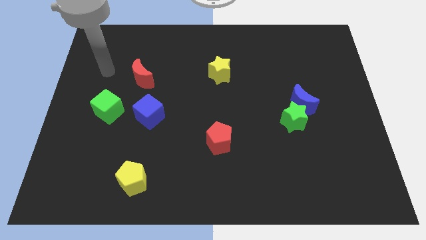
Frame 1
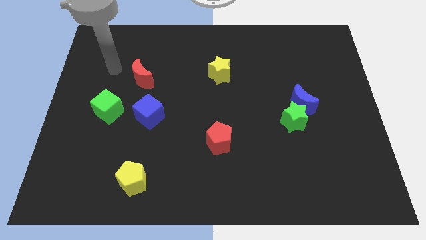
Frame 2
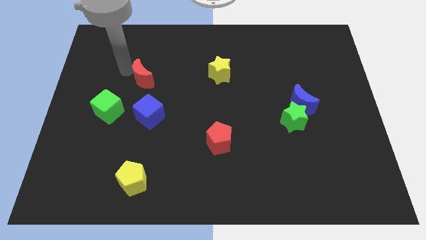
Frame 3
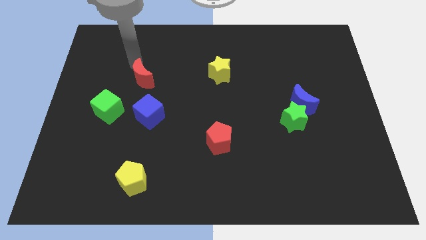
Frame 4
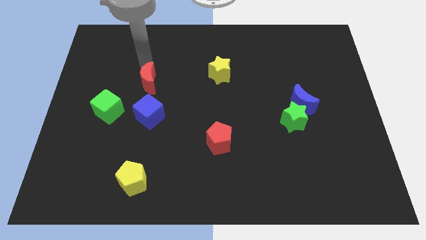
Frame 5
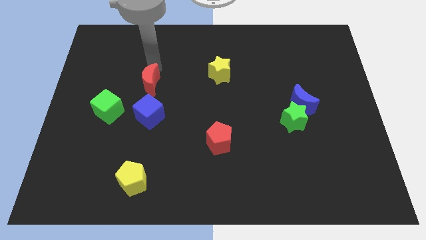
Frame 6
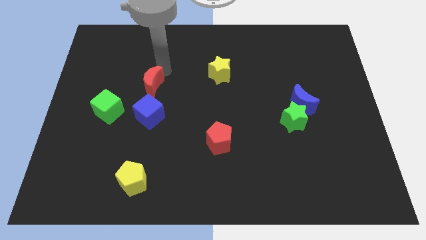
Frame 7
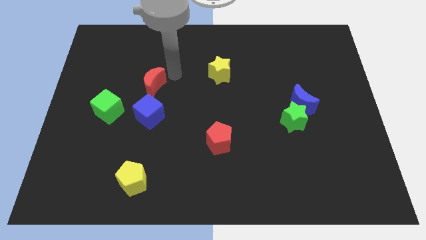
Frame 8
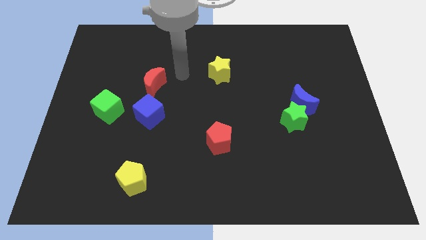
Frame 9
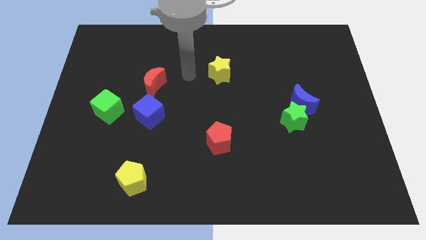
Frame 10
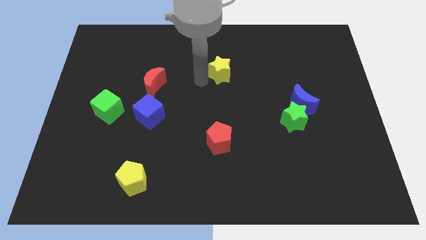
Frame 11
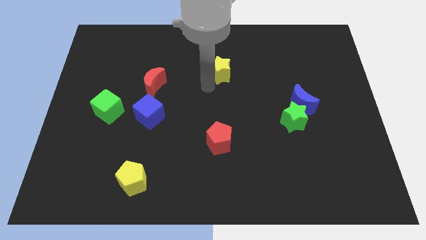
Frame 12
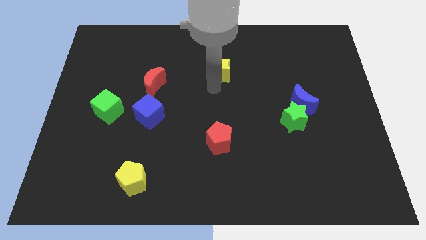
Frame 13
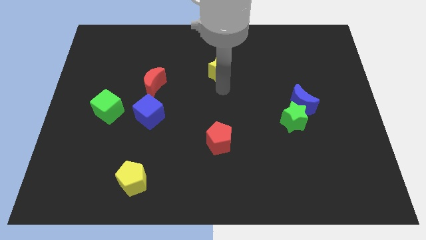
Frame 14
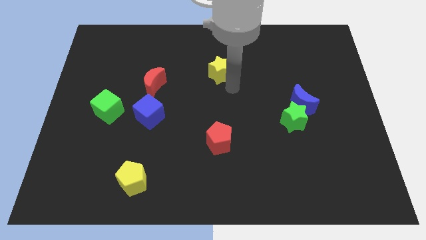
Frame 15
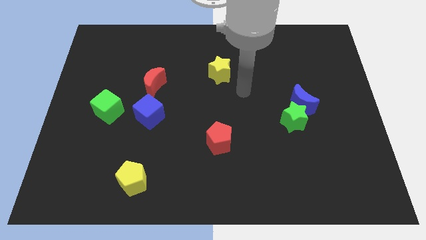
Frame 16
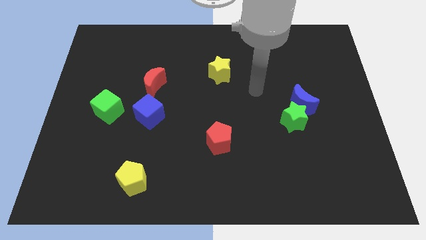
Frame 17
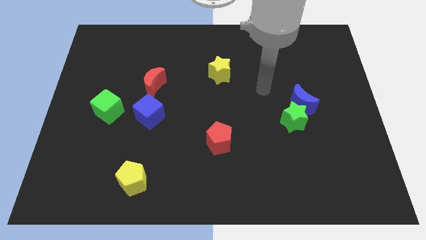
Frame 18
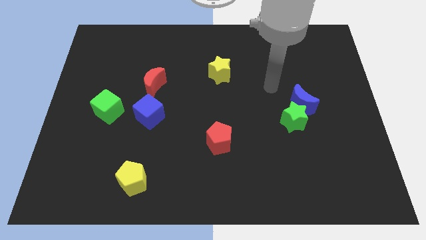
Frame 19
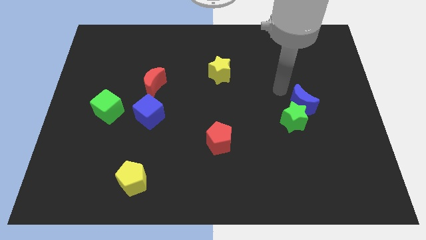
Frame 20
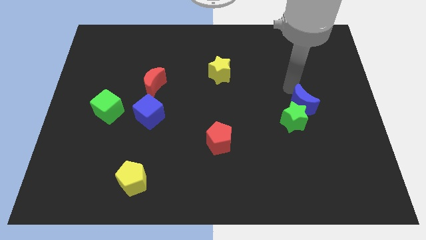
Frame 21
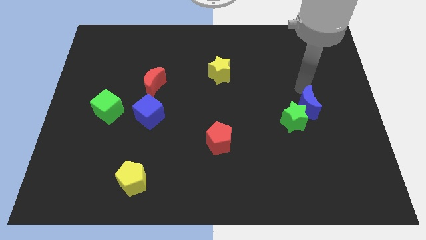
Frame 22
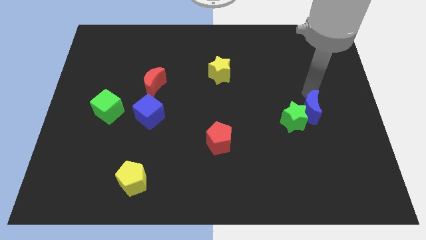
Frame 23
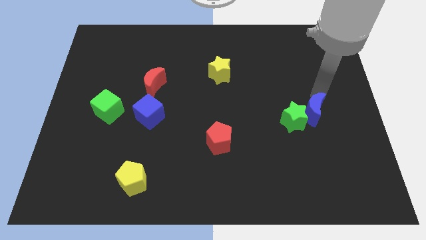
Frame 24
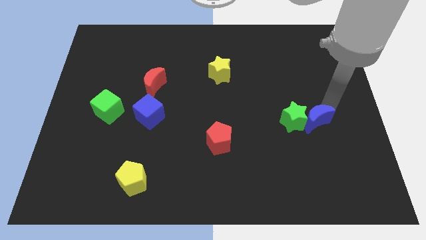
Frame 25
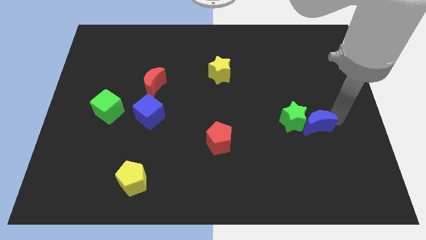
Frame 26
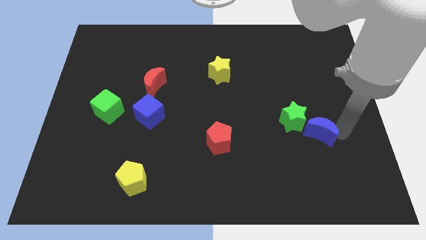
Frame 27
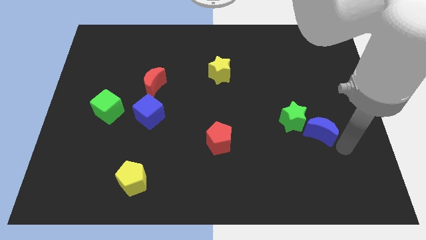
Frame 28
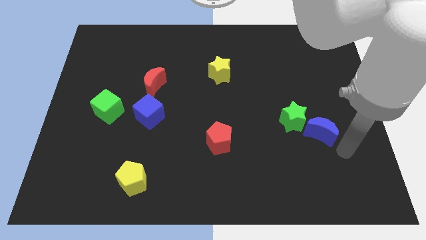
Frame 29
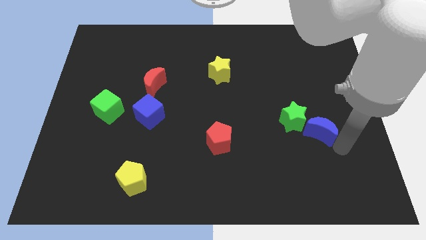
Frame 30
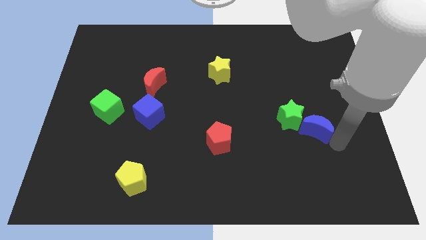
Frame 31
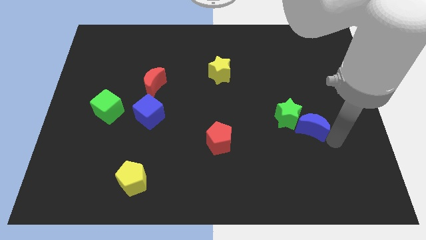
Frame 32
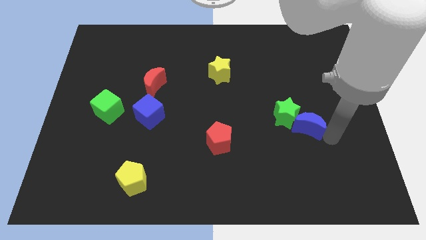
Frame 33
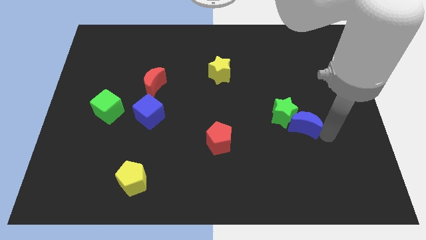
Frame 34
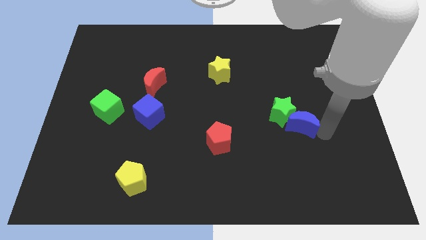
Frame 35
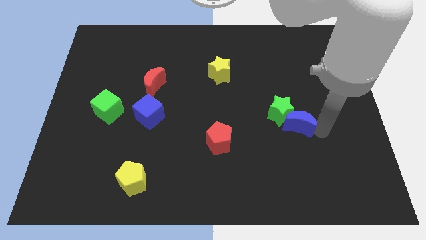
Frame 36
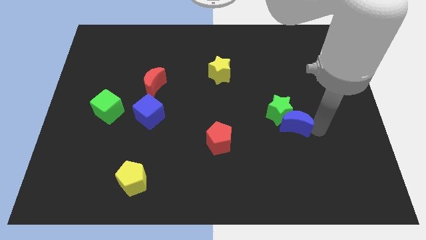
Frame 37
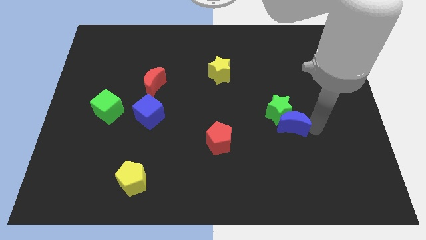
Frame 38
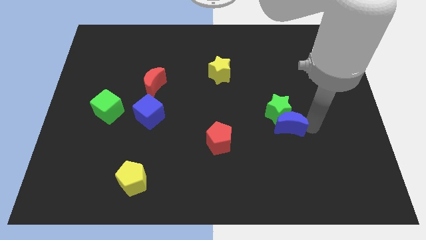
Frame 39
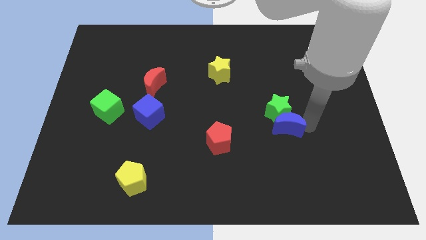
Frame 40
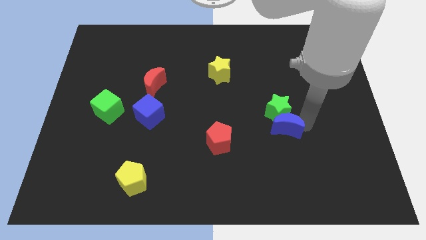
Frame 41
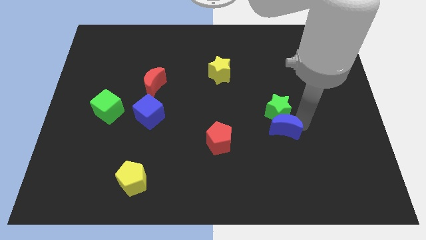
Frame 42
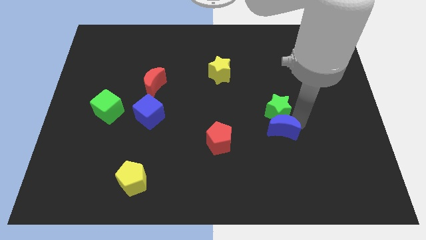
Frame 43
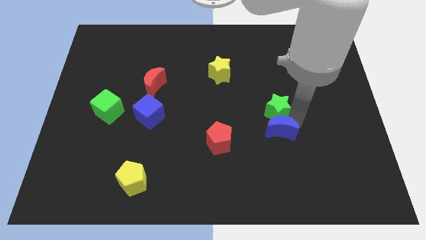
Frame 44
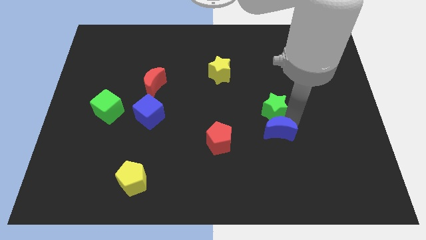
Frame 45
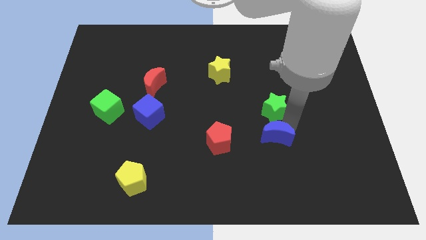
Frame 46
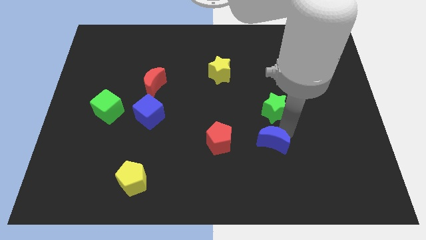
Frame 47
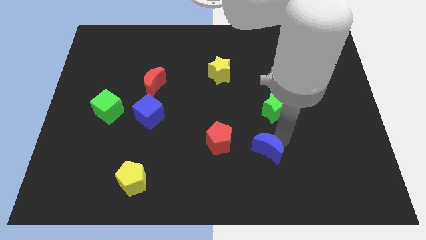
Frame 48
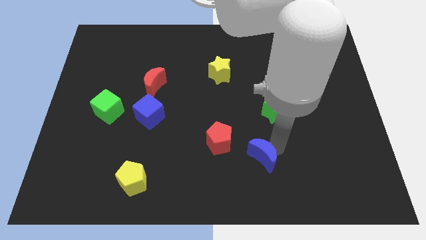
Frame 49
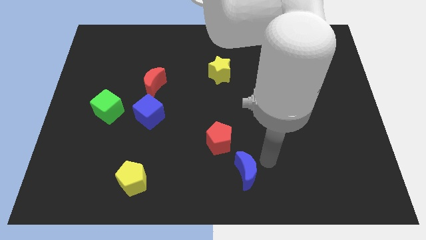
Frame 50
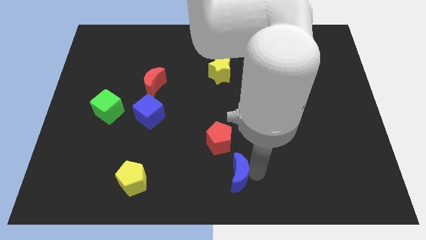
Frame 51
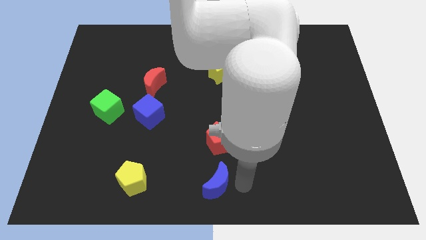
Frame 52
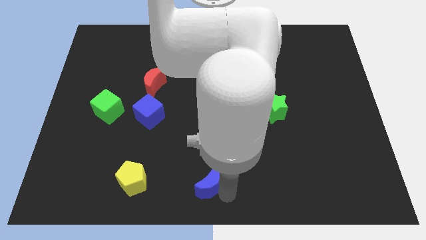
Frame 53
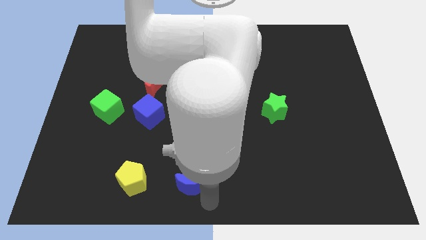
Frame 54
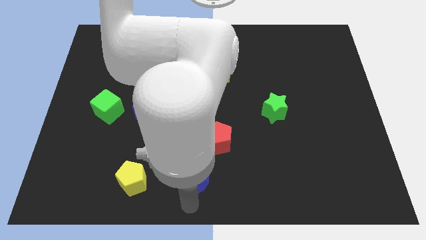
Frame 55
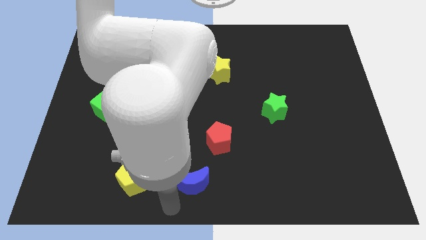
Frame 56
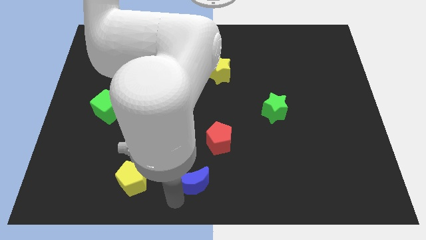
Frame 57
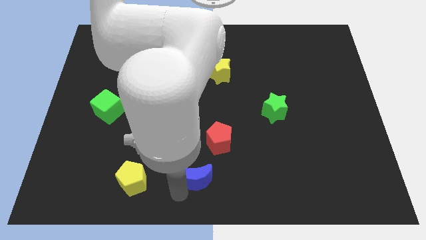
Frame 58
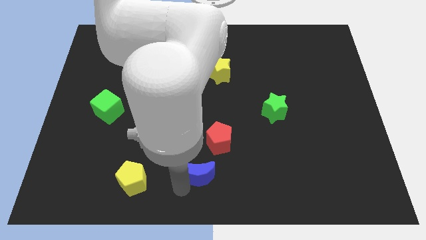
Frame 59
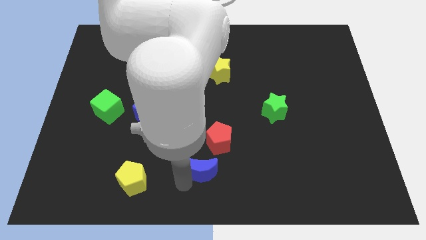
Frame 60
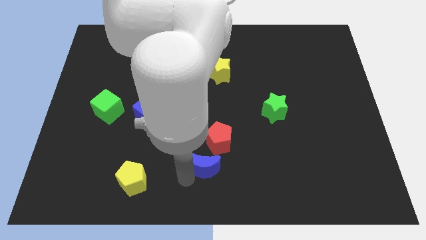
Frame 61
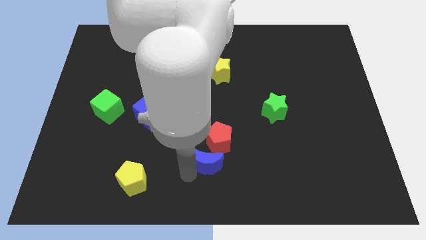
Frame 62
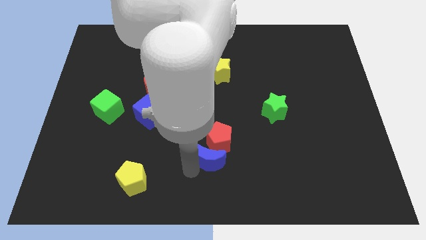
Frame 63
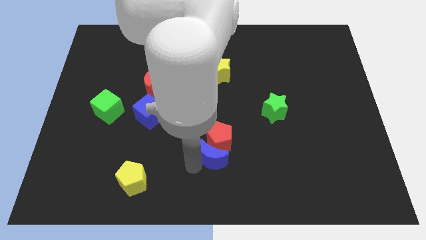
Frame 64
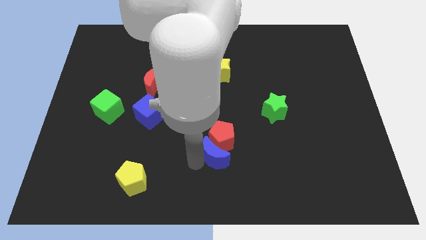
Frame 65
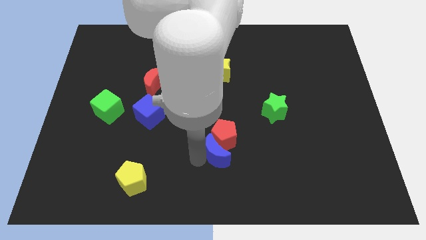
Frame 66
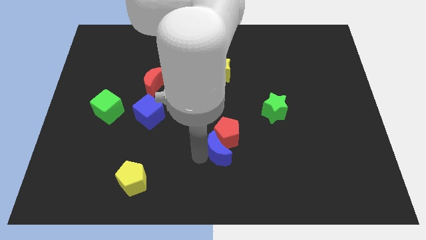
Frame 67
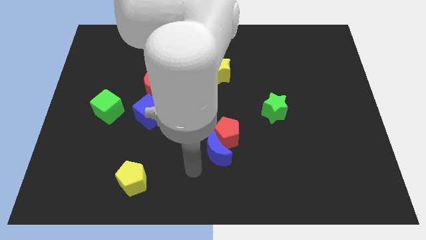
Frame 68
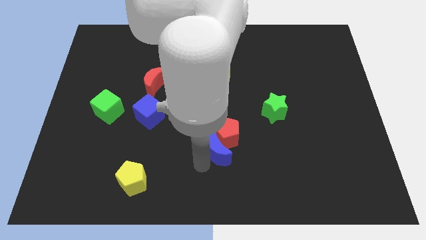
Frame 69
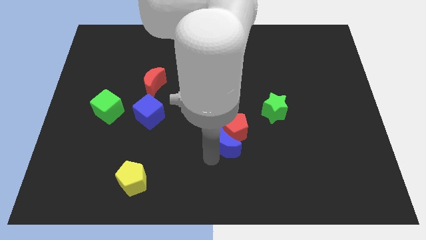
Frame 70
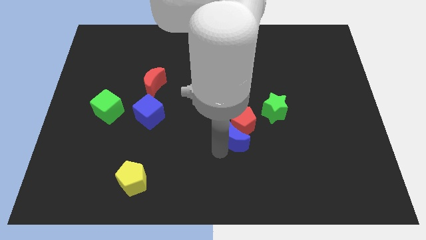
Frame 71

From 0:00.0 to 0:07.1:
push the blue moon to the middle
